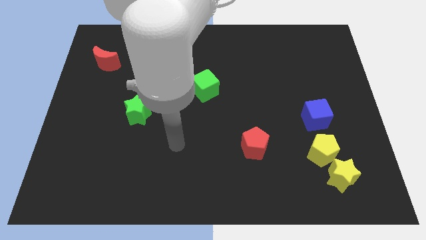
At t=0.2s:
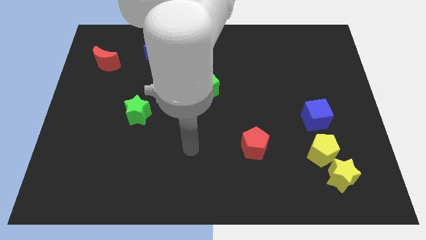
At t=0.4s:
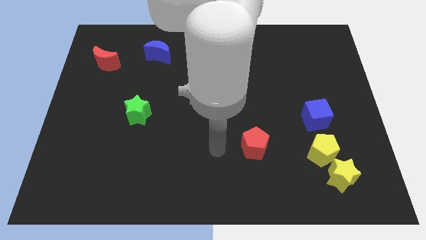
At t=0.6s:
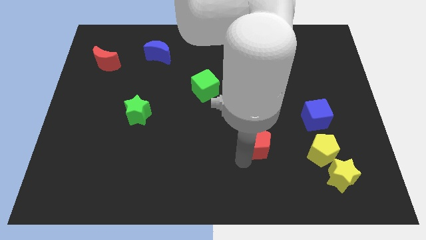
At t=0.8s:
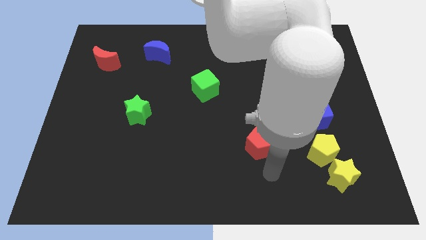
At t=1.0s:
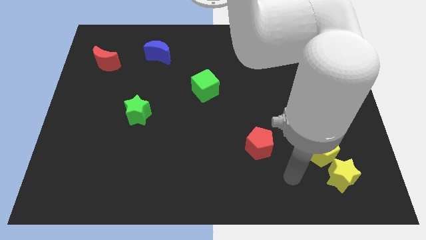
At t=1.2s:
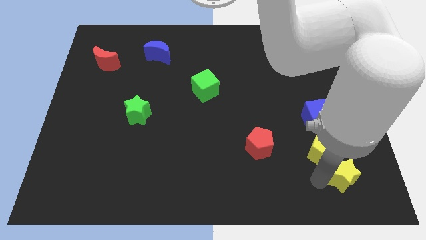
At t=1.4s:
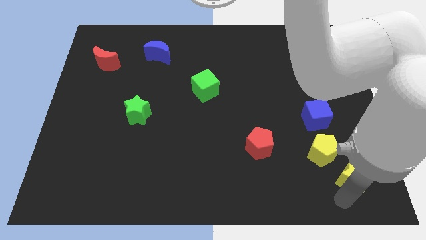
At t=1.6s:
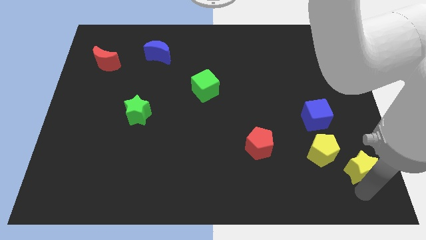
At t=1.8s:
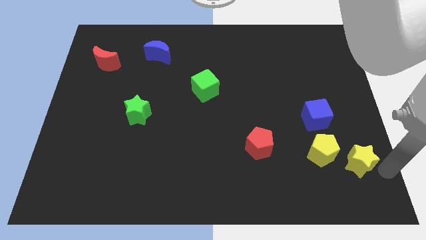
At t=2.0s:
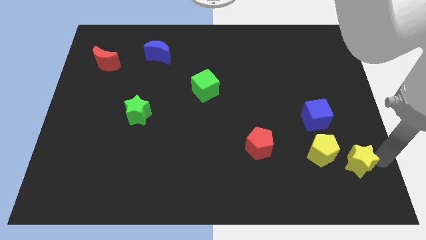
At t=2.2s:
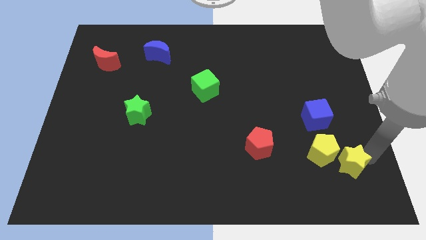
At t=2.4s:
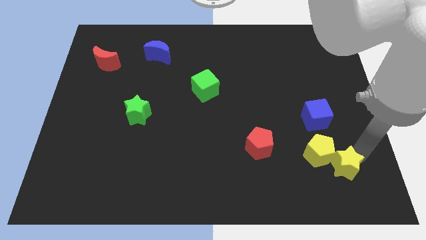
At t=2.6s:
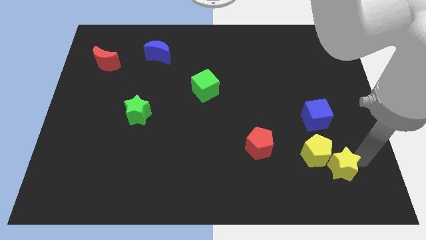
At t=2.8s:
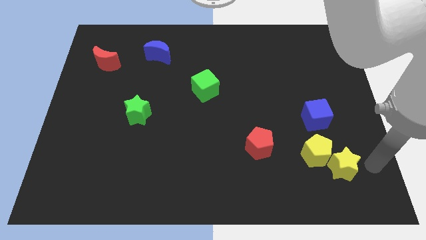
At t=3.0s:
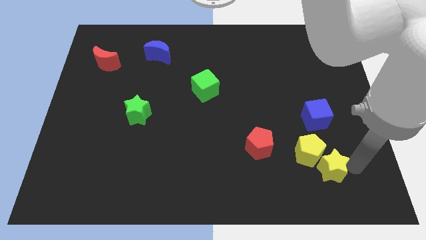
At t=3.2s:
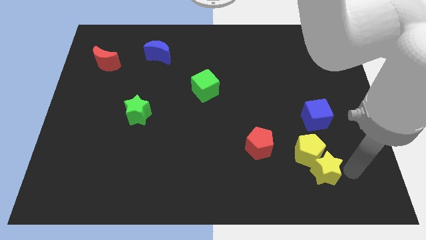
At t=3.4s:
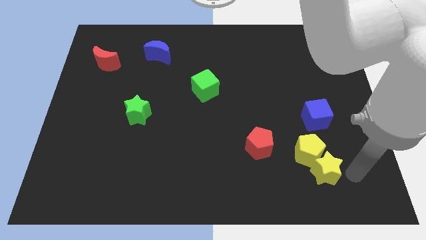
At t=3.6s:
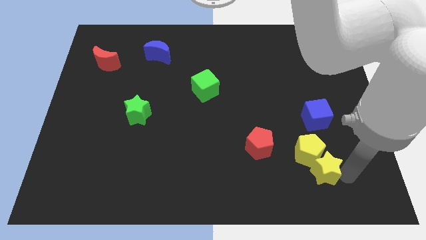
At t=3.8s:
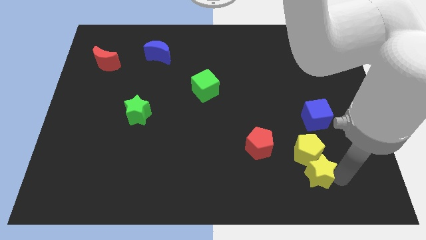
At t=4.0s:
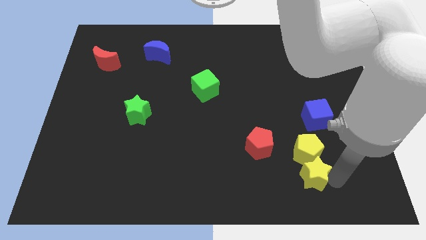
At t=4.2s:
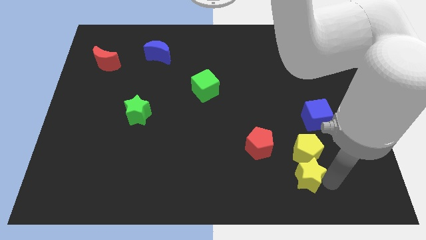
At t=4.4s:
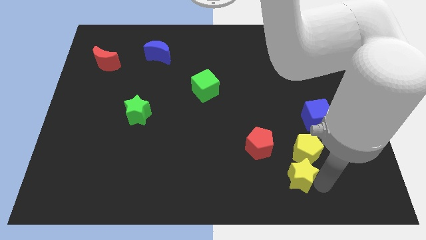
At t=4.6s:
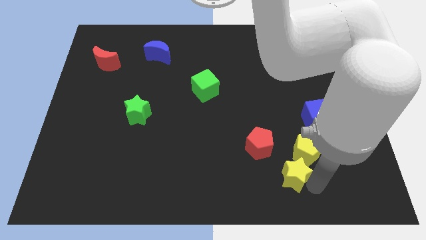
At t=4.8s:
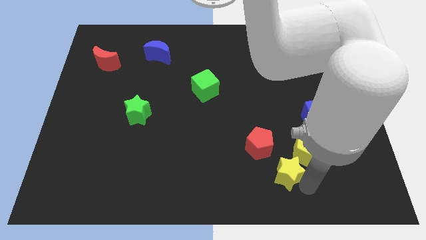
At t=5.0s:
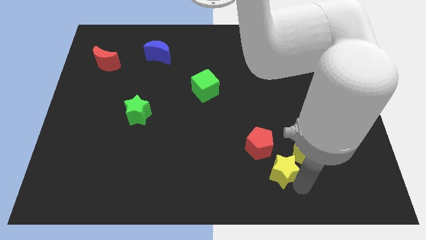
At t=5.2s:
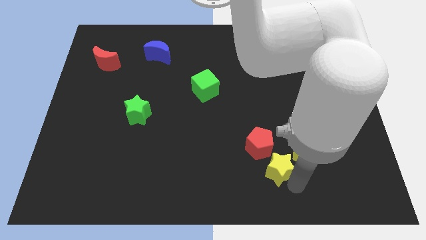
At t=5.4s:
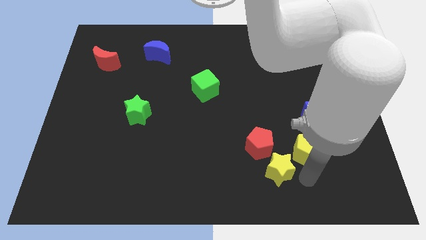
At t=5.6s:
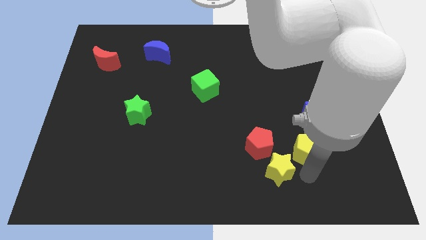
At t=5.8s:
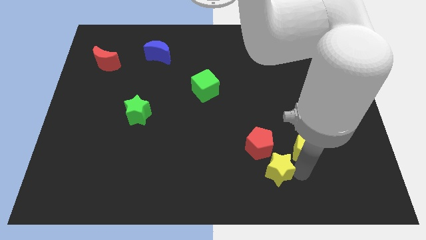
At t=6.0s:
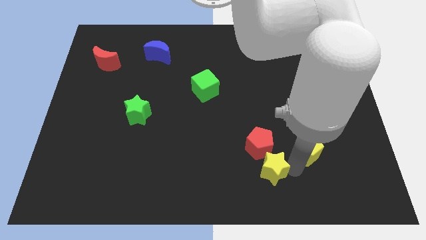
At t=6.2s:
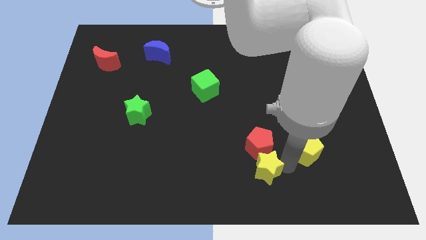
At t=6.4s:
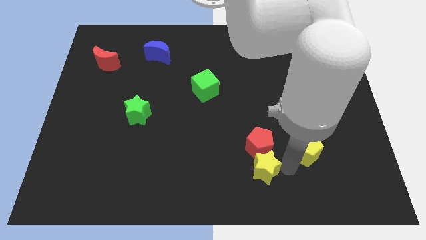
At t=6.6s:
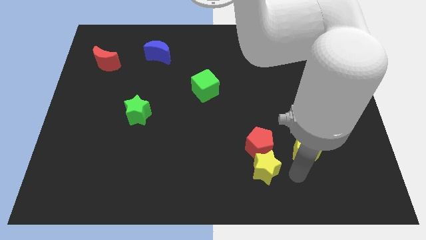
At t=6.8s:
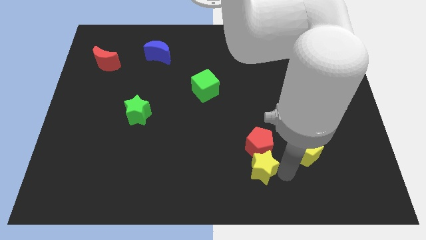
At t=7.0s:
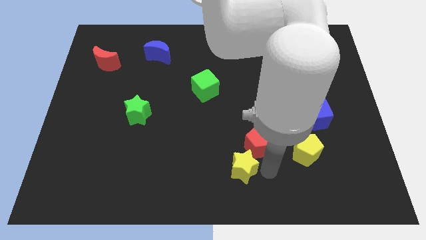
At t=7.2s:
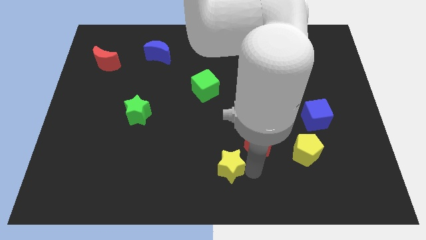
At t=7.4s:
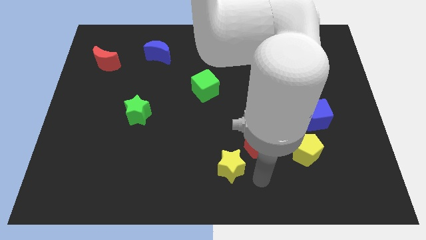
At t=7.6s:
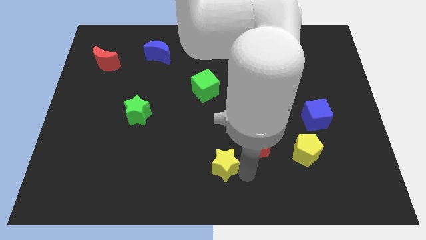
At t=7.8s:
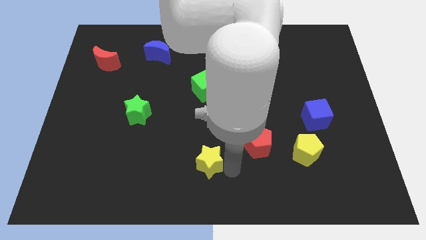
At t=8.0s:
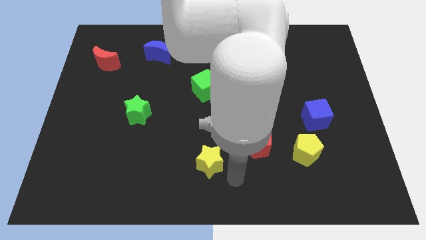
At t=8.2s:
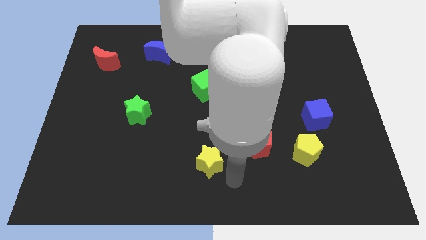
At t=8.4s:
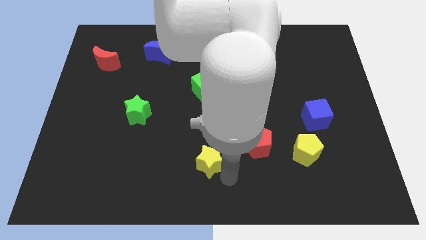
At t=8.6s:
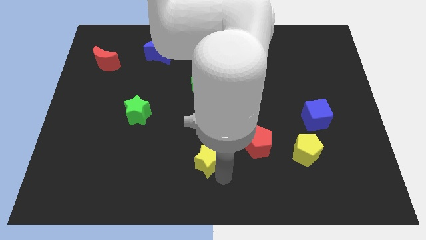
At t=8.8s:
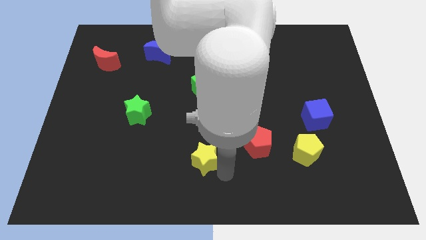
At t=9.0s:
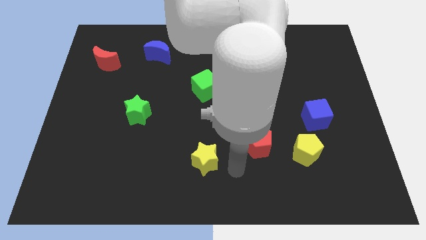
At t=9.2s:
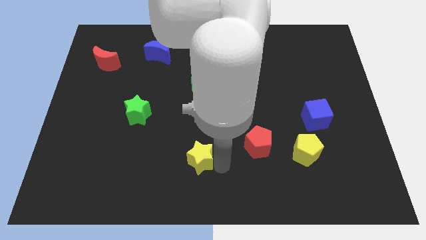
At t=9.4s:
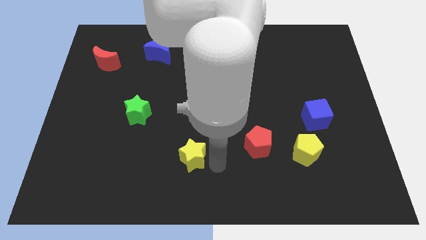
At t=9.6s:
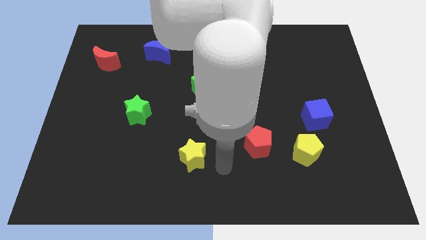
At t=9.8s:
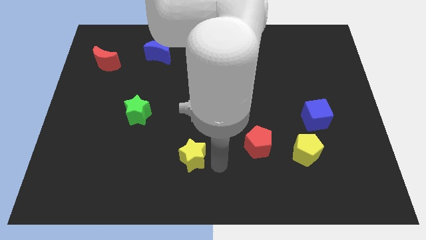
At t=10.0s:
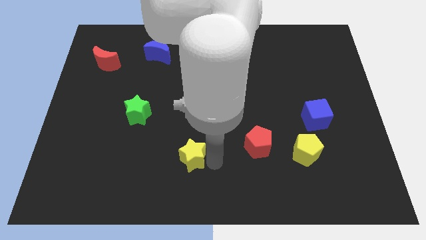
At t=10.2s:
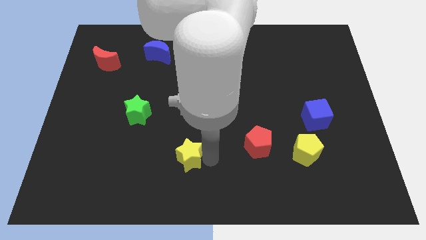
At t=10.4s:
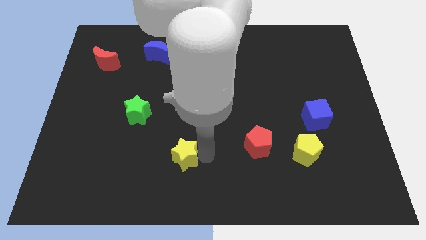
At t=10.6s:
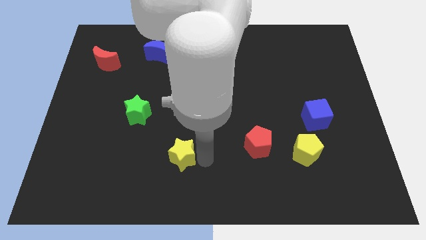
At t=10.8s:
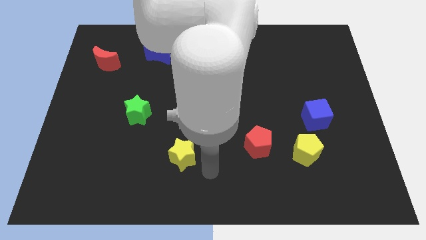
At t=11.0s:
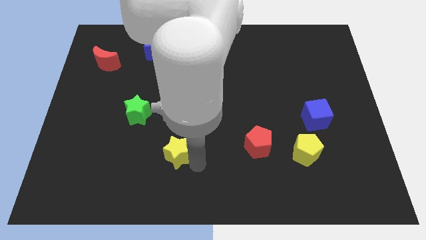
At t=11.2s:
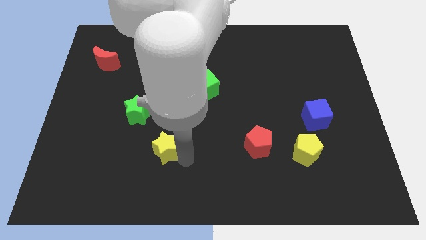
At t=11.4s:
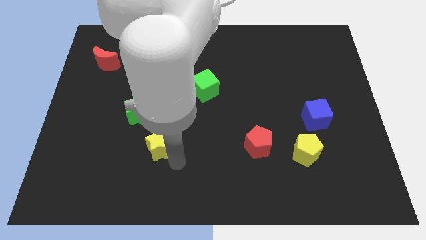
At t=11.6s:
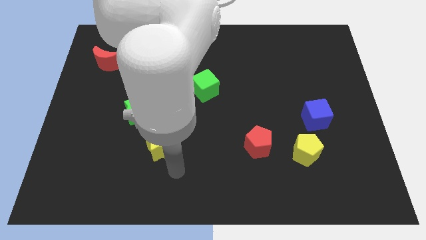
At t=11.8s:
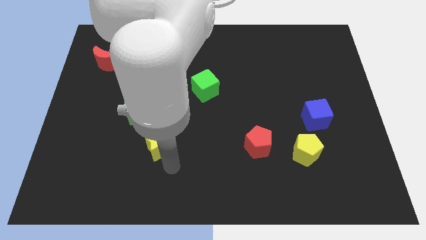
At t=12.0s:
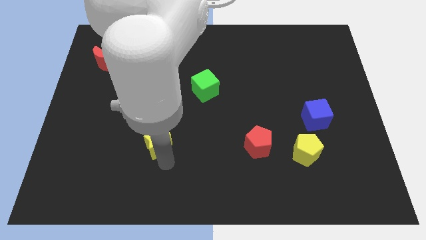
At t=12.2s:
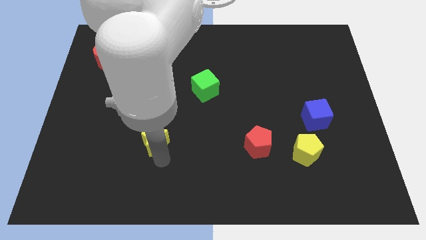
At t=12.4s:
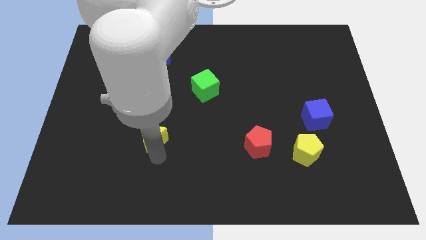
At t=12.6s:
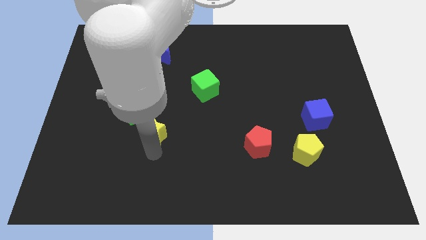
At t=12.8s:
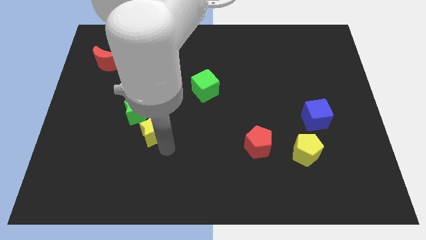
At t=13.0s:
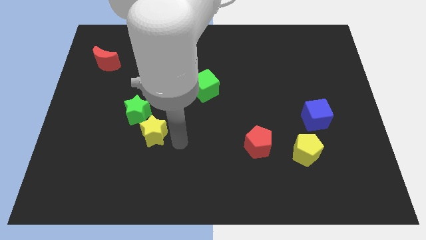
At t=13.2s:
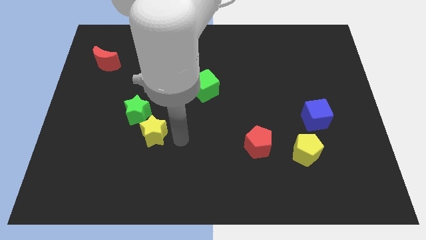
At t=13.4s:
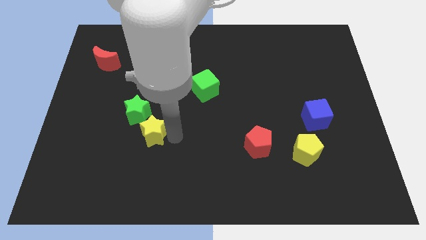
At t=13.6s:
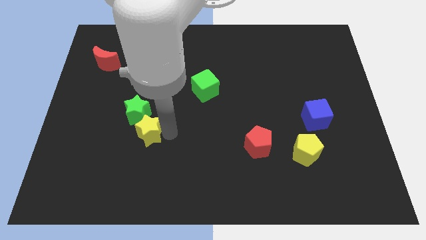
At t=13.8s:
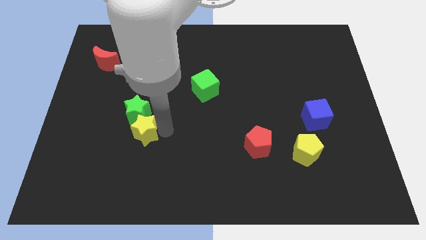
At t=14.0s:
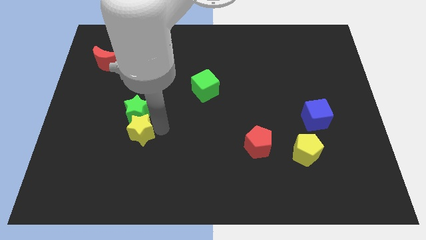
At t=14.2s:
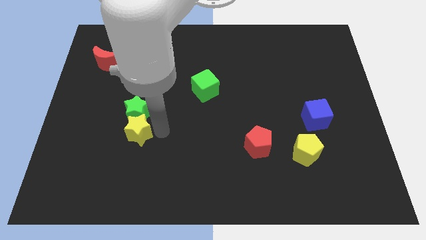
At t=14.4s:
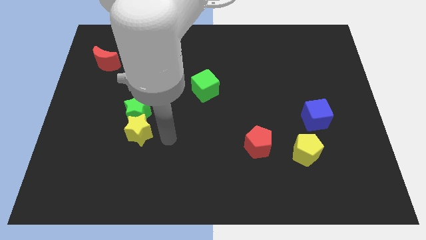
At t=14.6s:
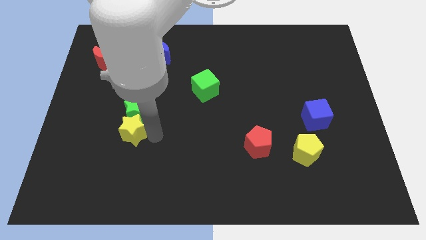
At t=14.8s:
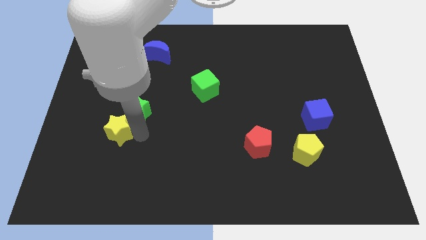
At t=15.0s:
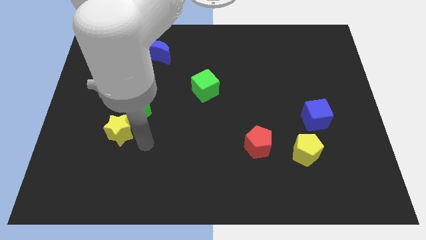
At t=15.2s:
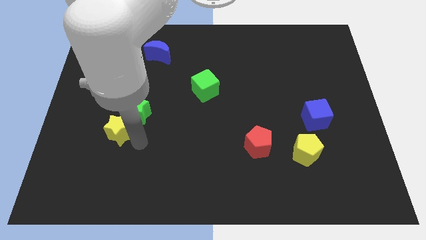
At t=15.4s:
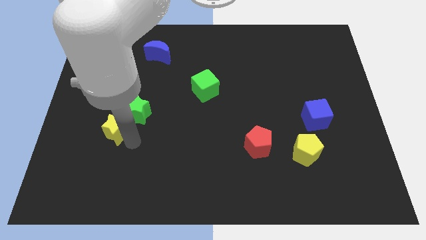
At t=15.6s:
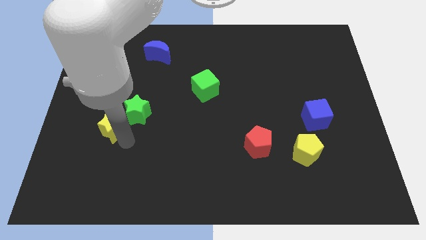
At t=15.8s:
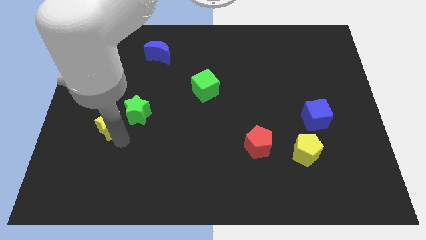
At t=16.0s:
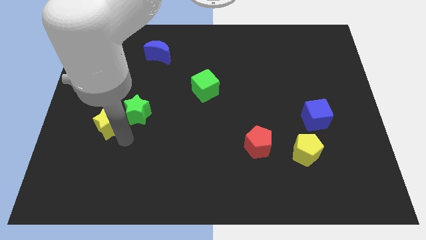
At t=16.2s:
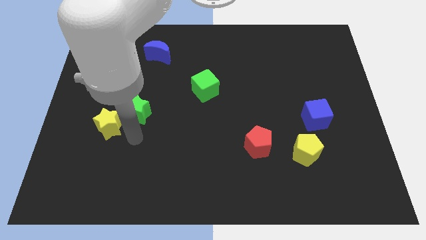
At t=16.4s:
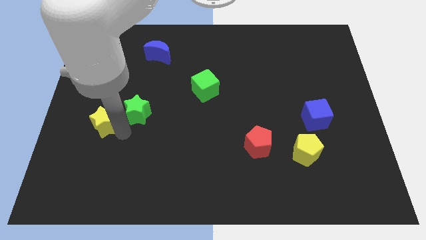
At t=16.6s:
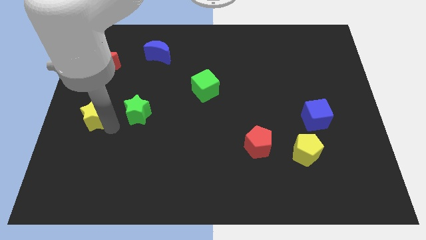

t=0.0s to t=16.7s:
move the yellow star to the left side of the board
